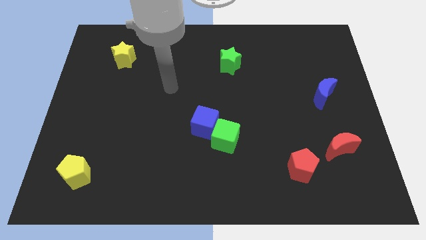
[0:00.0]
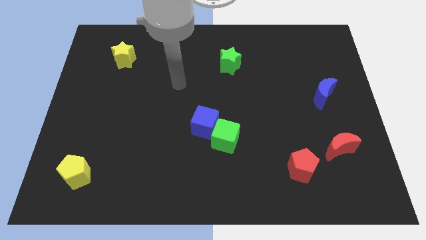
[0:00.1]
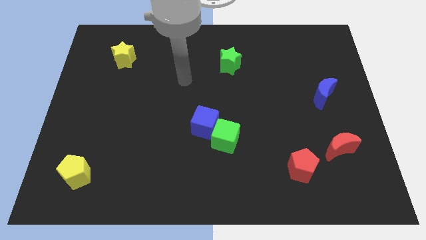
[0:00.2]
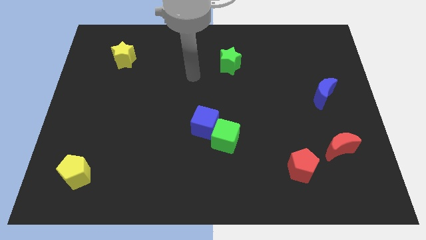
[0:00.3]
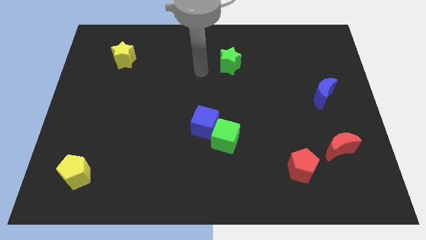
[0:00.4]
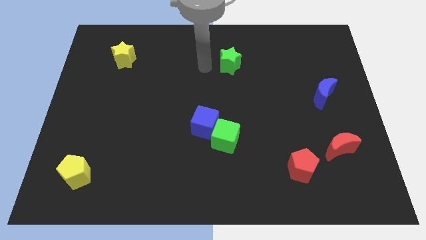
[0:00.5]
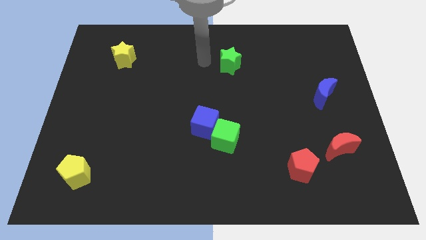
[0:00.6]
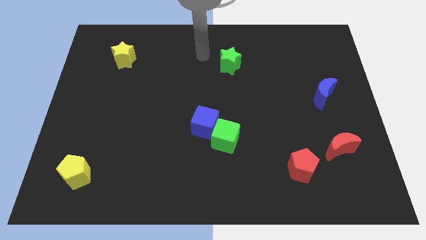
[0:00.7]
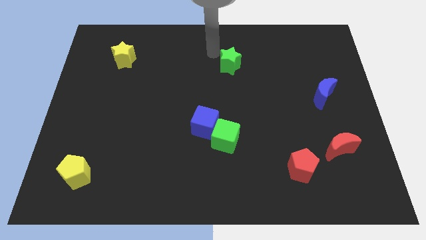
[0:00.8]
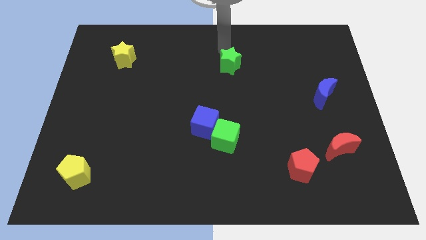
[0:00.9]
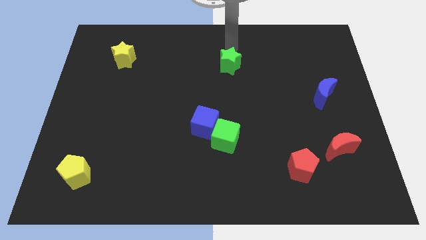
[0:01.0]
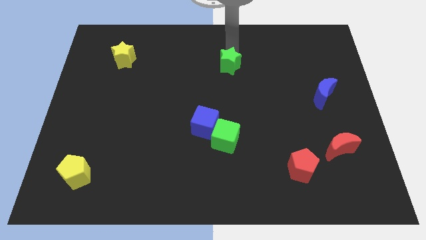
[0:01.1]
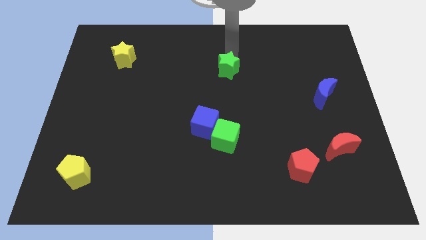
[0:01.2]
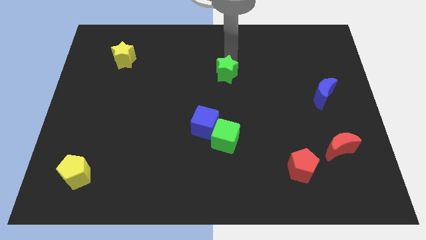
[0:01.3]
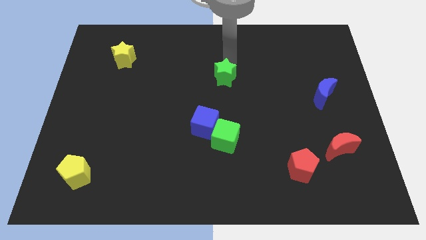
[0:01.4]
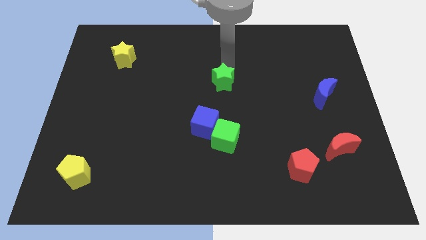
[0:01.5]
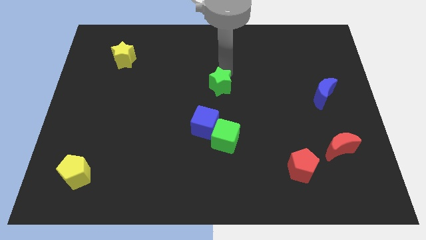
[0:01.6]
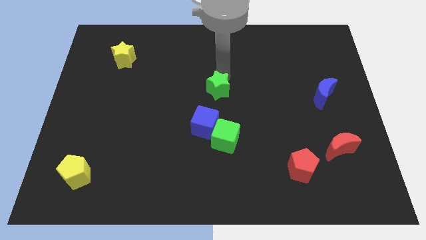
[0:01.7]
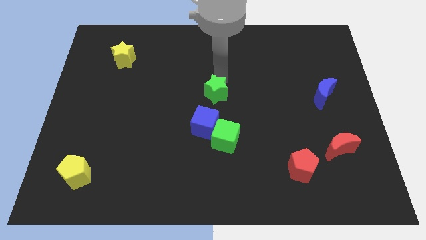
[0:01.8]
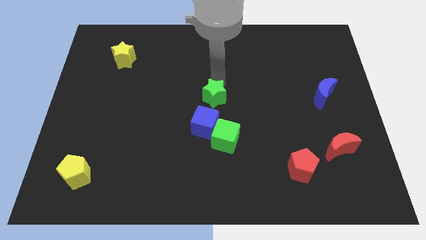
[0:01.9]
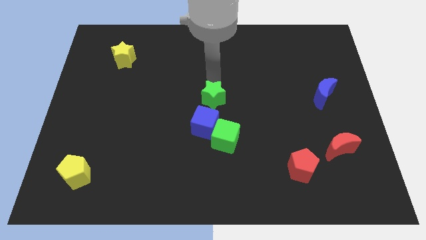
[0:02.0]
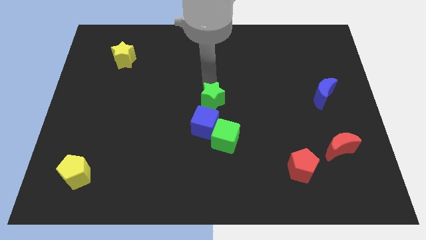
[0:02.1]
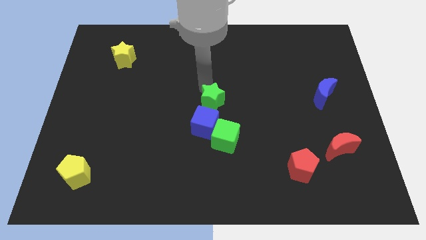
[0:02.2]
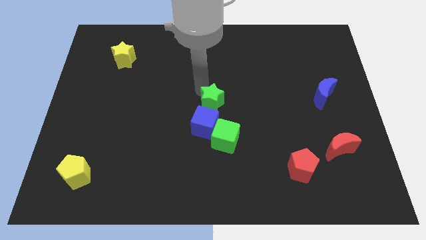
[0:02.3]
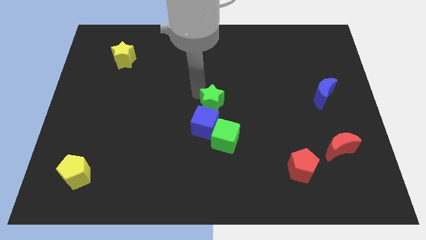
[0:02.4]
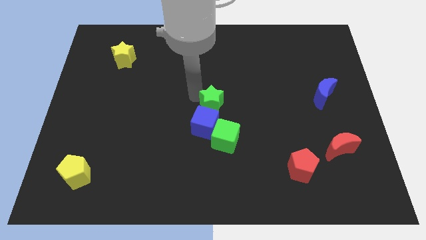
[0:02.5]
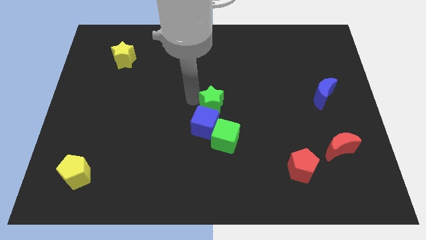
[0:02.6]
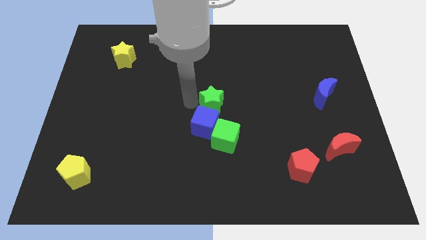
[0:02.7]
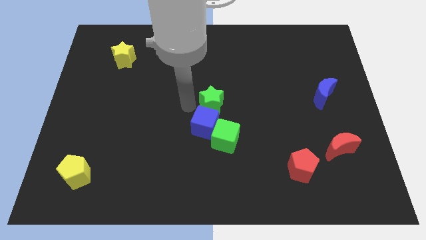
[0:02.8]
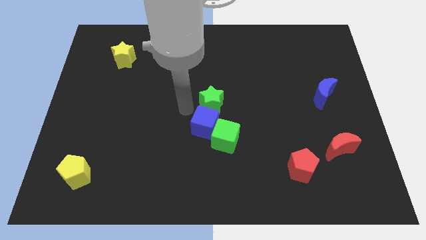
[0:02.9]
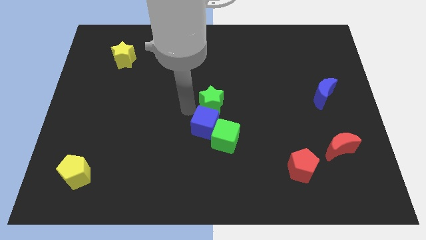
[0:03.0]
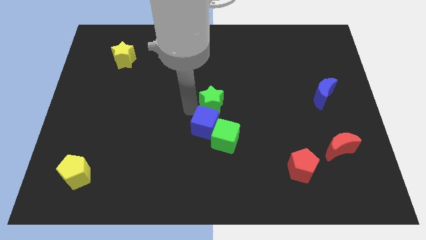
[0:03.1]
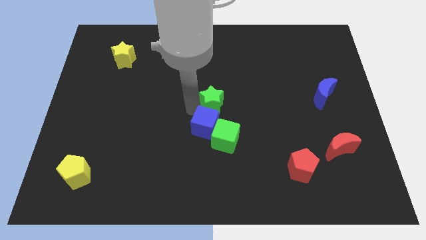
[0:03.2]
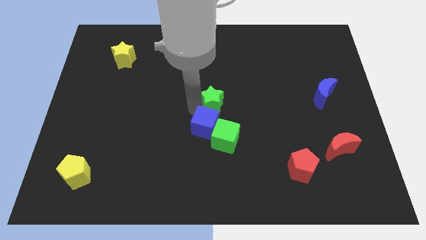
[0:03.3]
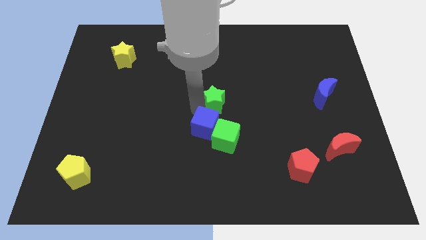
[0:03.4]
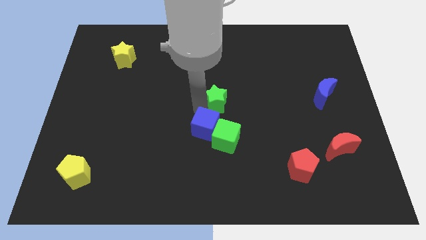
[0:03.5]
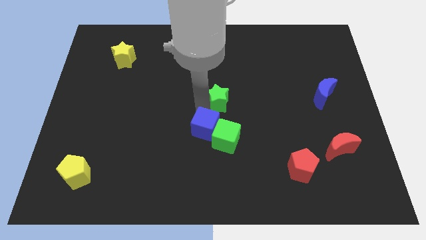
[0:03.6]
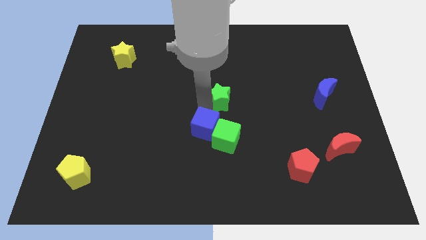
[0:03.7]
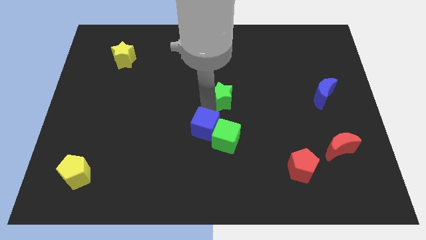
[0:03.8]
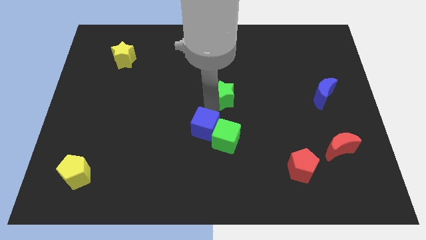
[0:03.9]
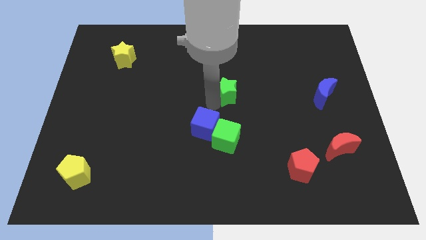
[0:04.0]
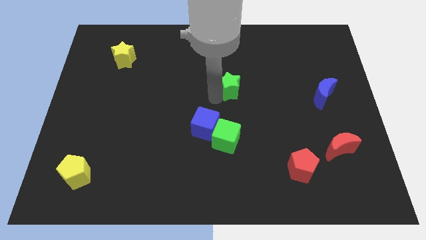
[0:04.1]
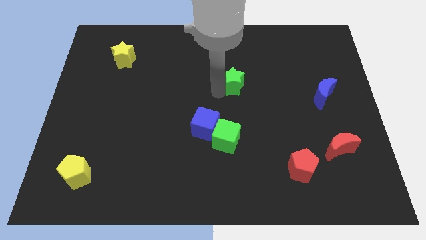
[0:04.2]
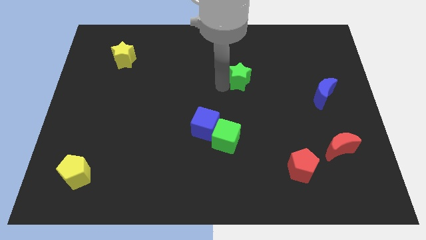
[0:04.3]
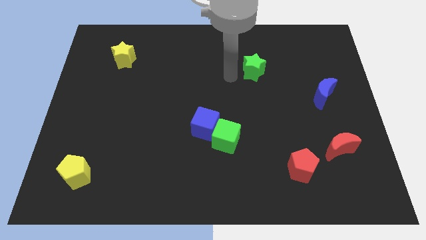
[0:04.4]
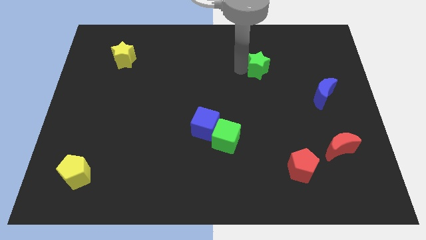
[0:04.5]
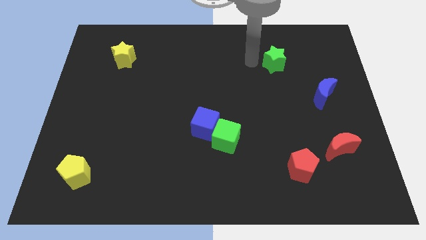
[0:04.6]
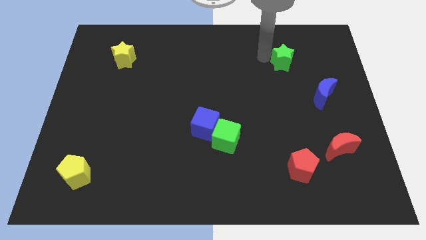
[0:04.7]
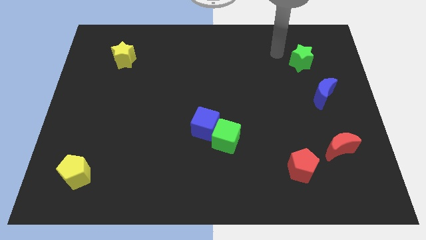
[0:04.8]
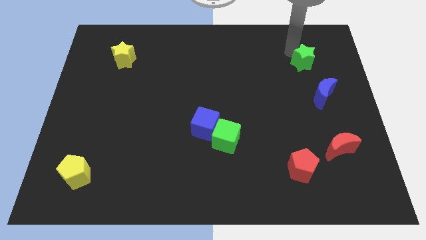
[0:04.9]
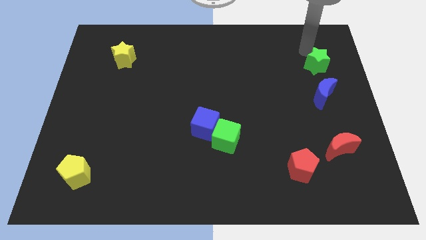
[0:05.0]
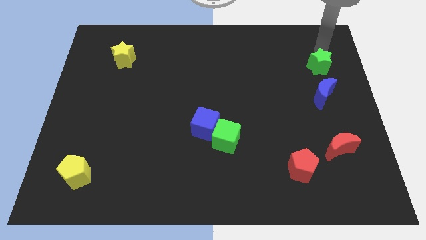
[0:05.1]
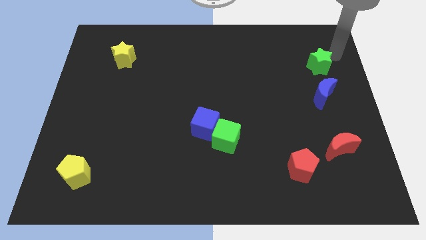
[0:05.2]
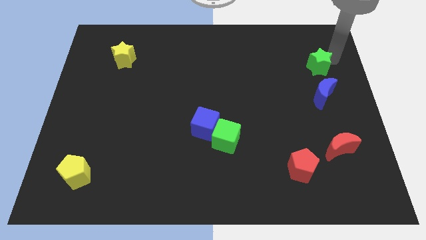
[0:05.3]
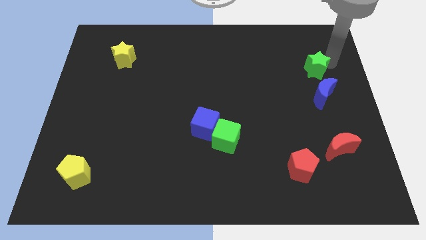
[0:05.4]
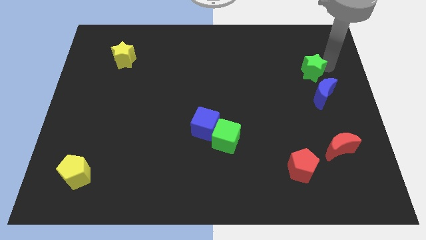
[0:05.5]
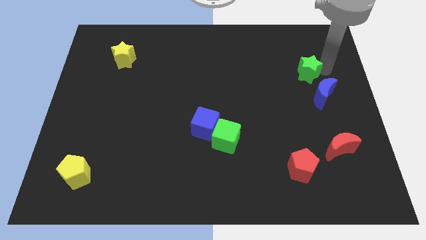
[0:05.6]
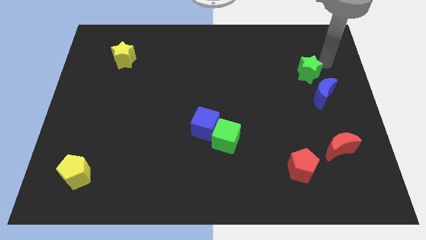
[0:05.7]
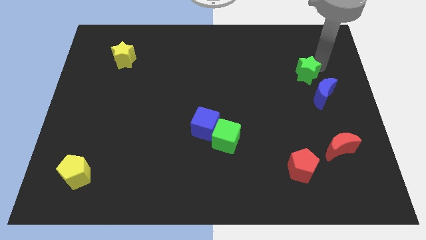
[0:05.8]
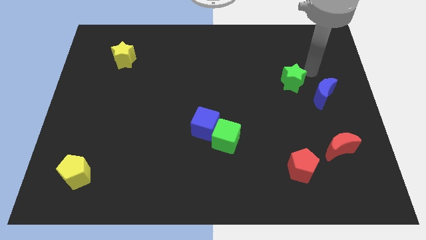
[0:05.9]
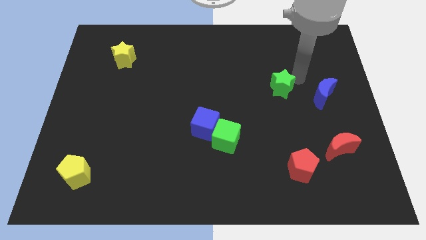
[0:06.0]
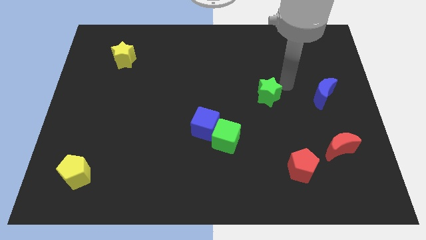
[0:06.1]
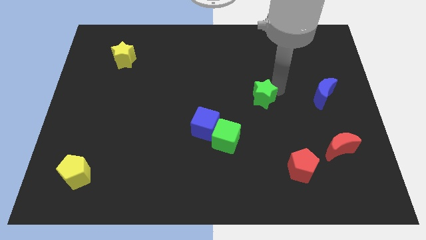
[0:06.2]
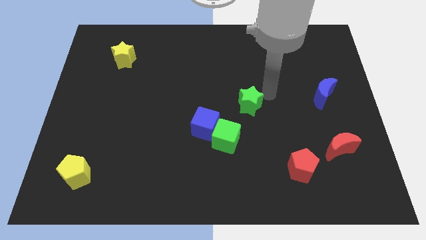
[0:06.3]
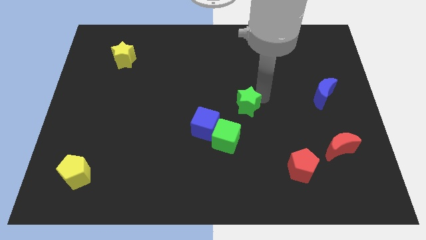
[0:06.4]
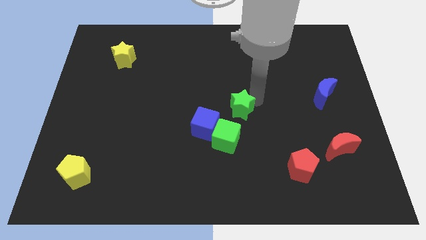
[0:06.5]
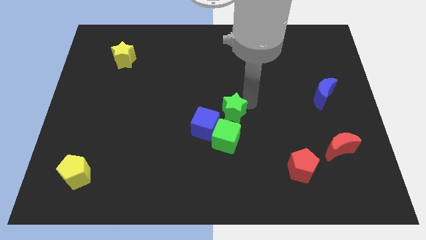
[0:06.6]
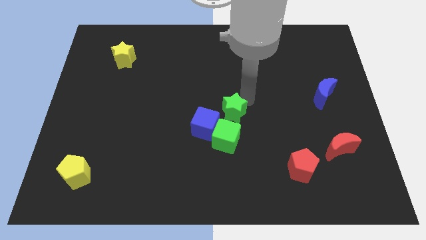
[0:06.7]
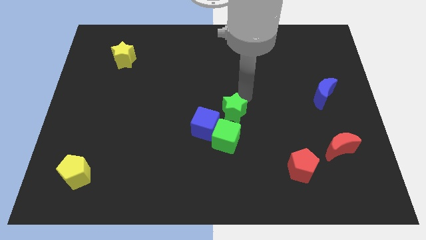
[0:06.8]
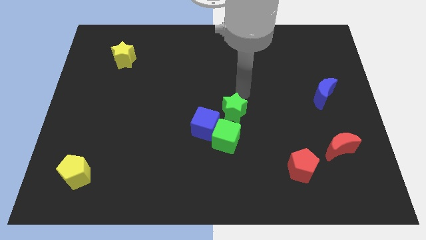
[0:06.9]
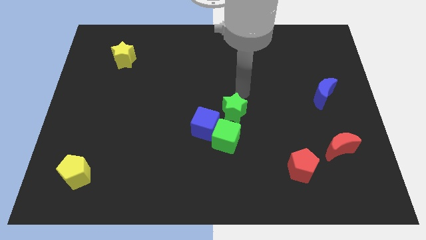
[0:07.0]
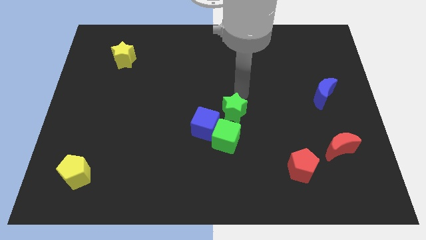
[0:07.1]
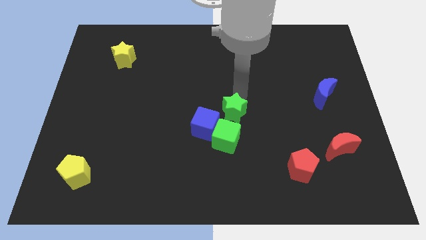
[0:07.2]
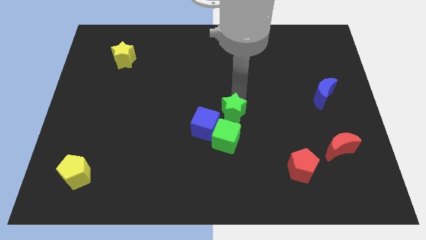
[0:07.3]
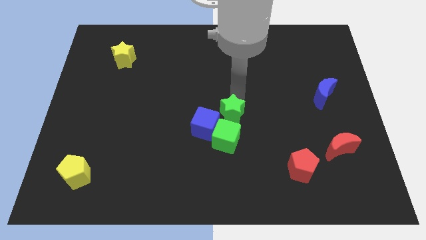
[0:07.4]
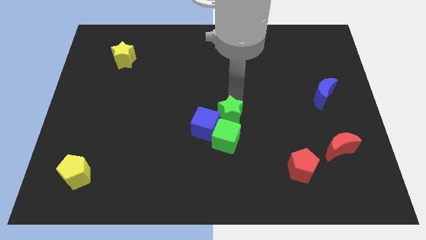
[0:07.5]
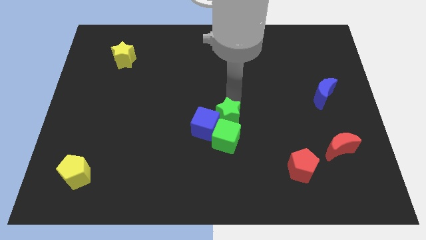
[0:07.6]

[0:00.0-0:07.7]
slide the green star towards the green cube
